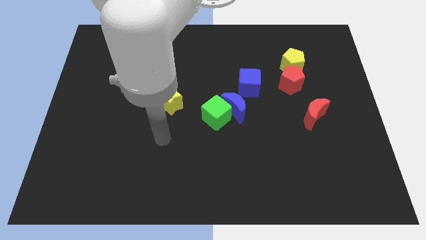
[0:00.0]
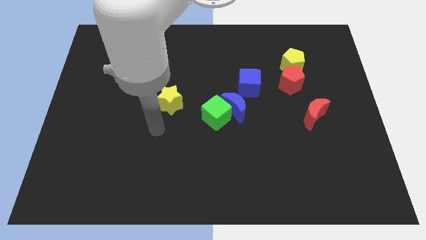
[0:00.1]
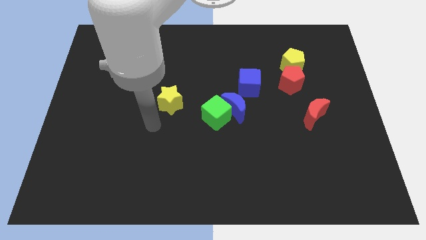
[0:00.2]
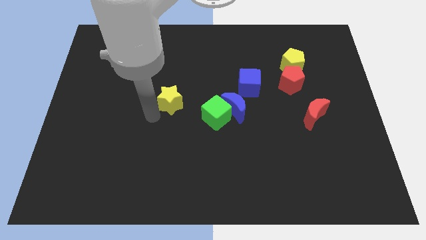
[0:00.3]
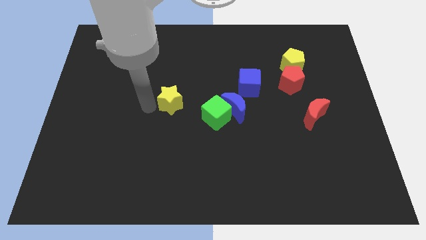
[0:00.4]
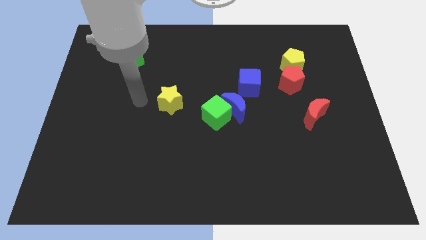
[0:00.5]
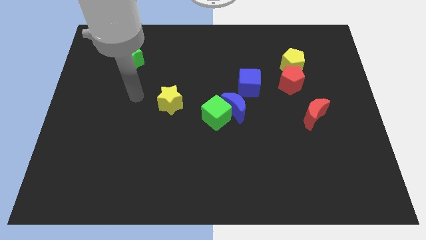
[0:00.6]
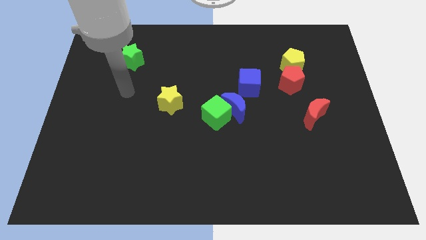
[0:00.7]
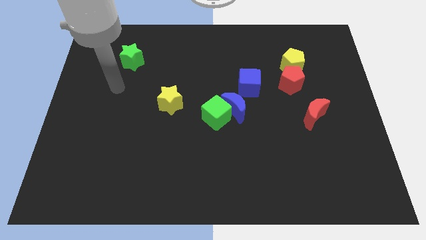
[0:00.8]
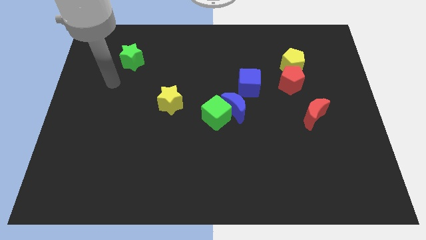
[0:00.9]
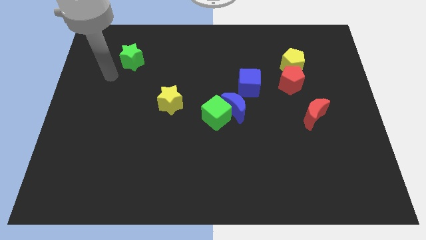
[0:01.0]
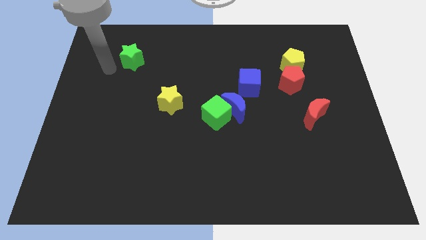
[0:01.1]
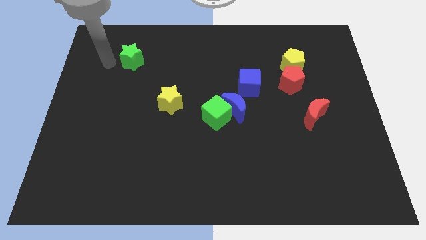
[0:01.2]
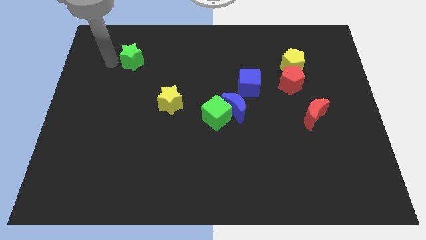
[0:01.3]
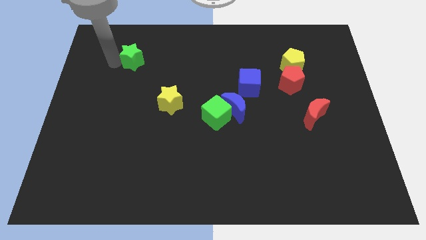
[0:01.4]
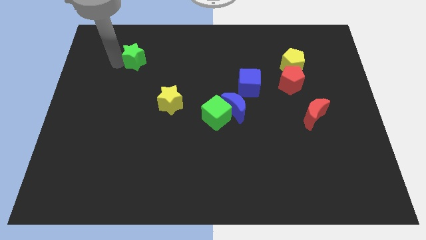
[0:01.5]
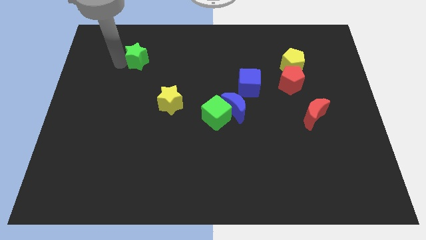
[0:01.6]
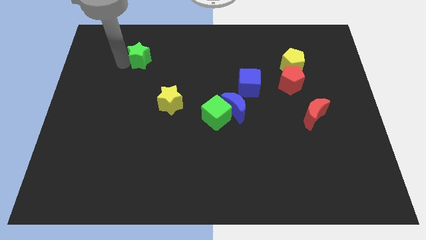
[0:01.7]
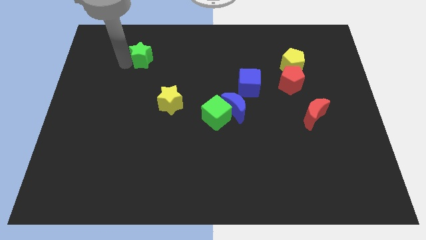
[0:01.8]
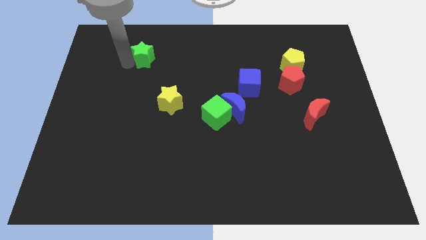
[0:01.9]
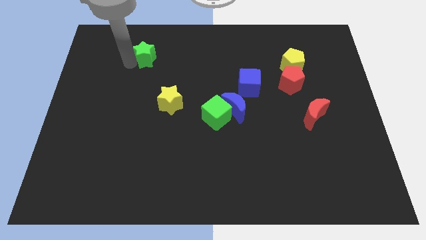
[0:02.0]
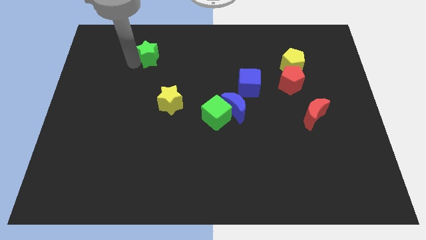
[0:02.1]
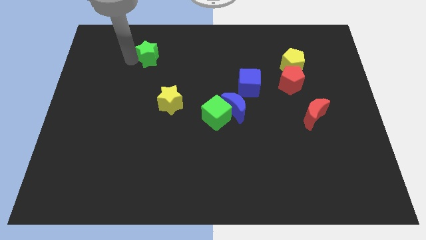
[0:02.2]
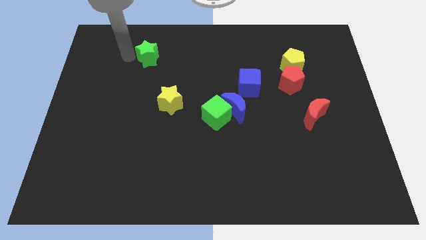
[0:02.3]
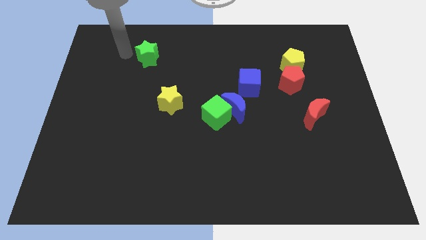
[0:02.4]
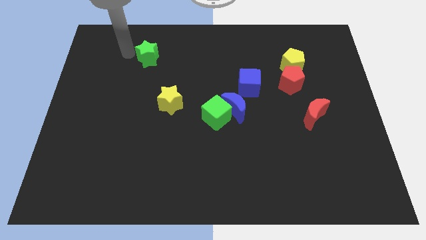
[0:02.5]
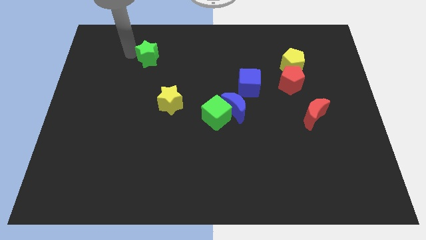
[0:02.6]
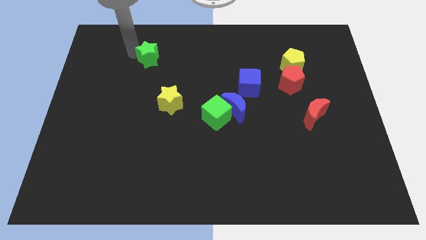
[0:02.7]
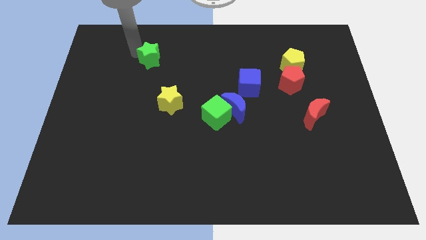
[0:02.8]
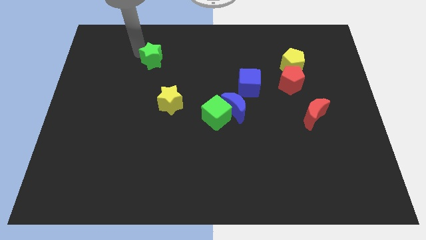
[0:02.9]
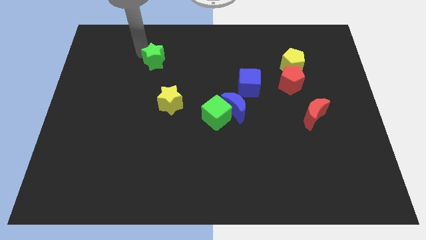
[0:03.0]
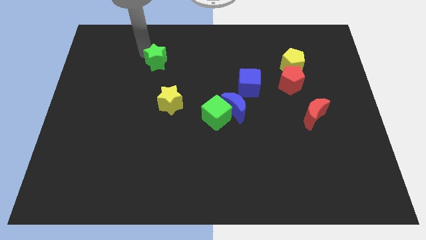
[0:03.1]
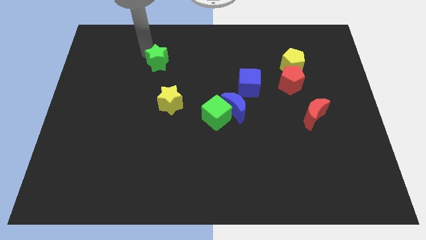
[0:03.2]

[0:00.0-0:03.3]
slide the green star right a little bit

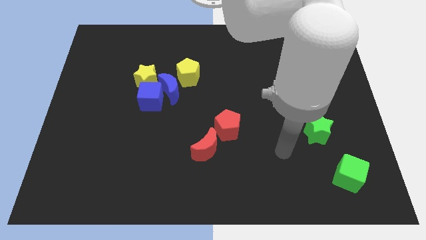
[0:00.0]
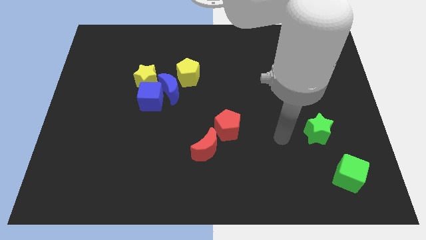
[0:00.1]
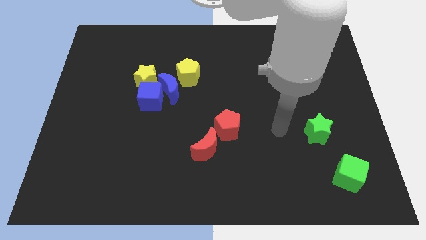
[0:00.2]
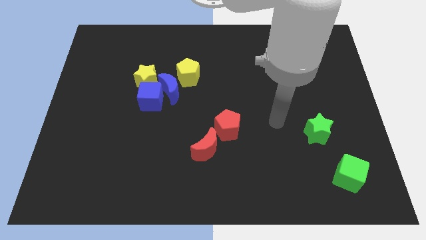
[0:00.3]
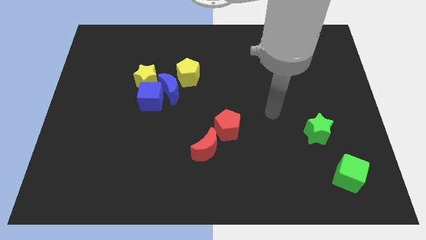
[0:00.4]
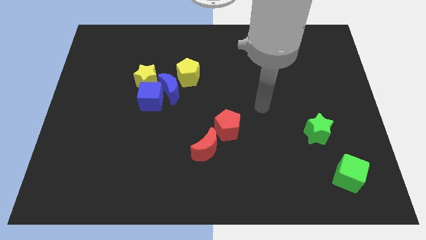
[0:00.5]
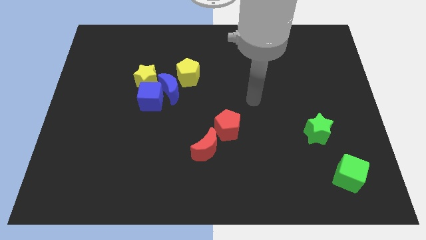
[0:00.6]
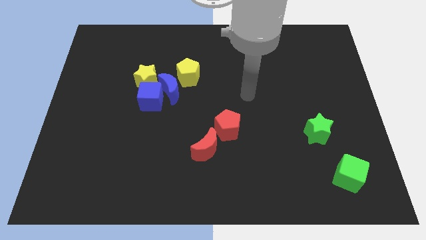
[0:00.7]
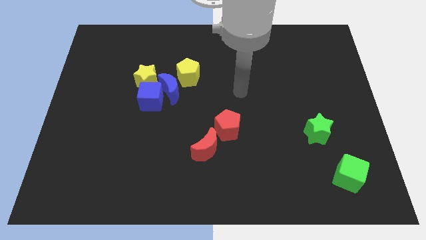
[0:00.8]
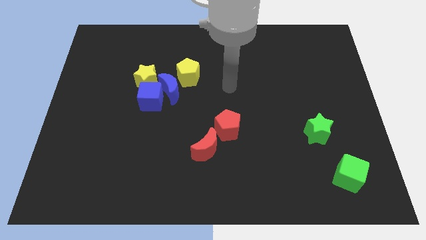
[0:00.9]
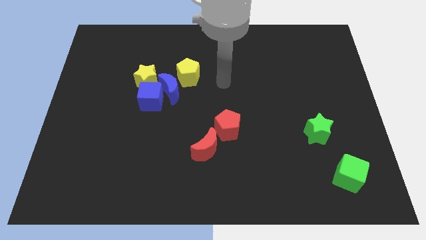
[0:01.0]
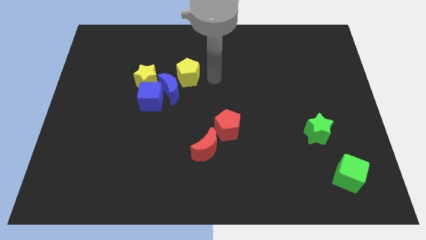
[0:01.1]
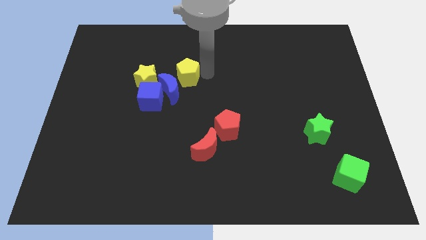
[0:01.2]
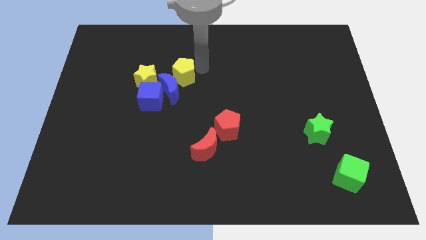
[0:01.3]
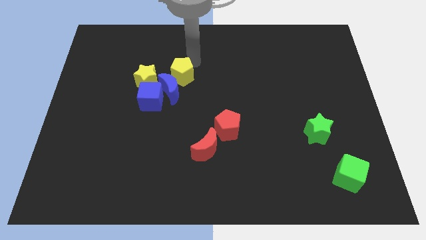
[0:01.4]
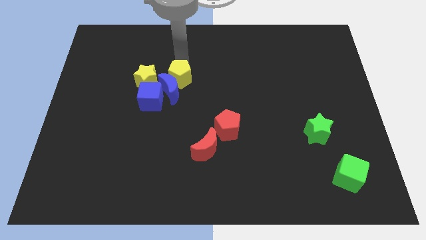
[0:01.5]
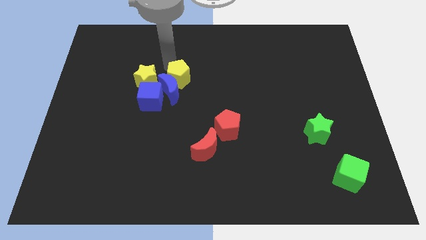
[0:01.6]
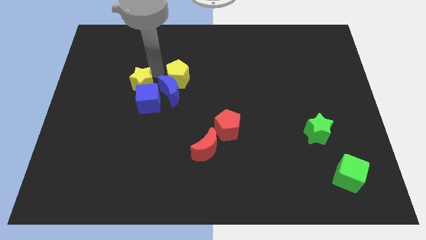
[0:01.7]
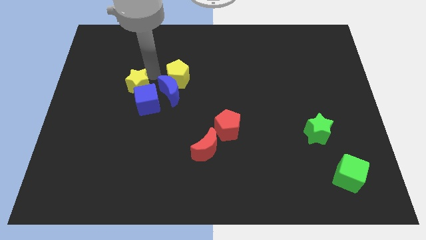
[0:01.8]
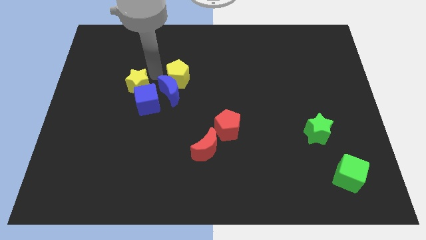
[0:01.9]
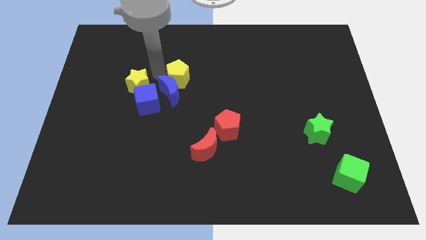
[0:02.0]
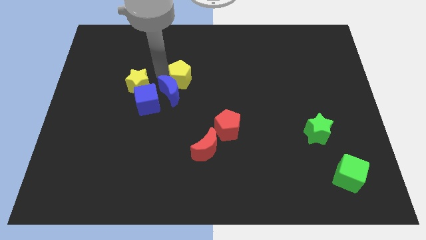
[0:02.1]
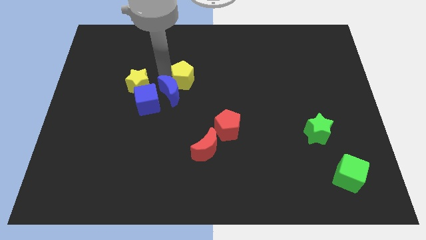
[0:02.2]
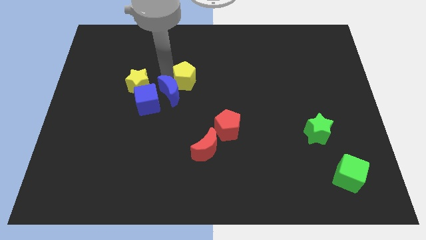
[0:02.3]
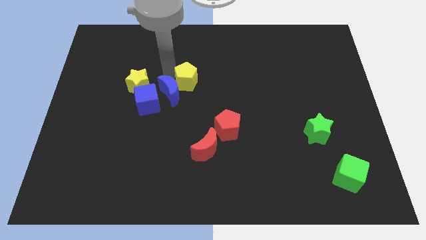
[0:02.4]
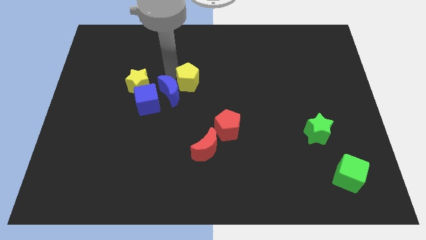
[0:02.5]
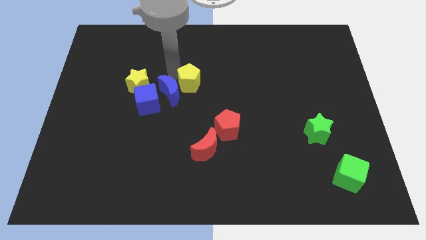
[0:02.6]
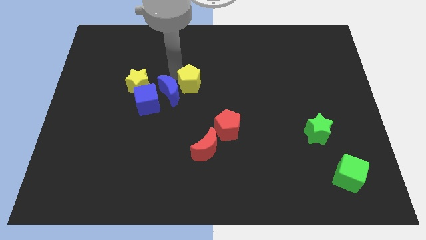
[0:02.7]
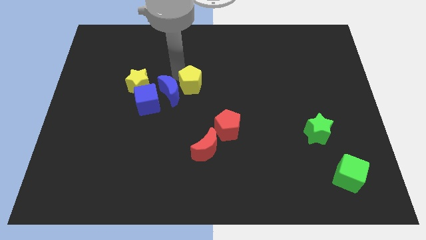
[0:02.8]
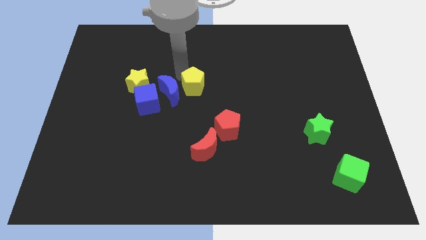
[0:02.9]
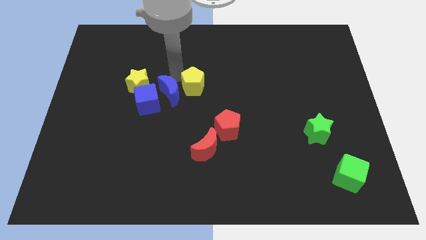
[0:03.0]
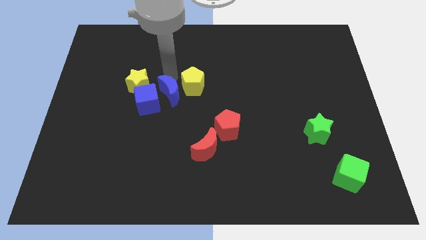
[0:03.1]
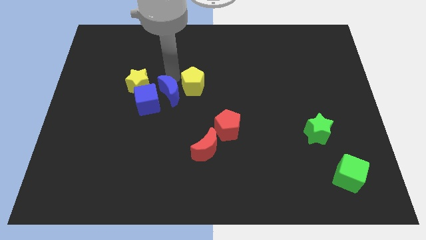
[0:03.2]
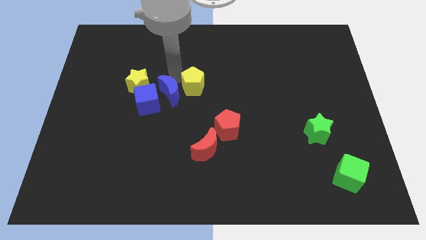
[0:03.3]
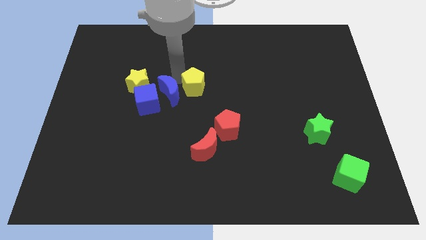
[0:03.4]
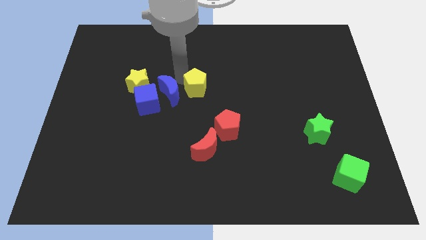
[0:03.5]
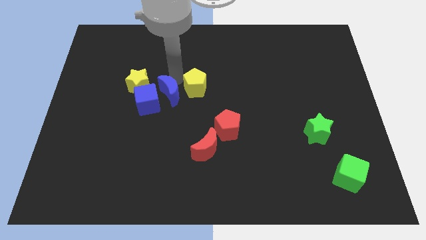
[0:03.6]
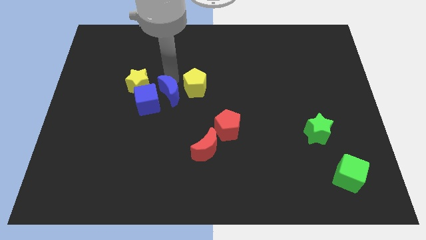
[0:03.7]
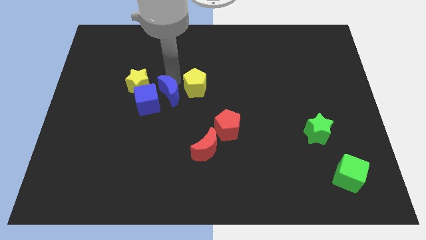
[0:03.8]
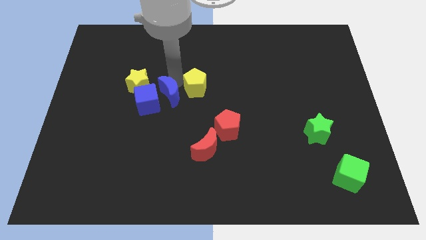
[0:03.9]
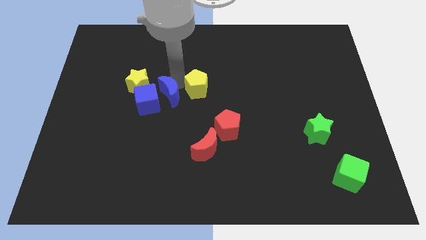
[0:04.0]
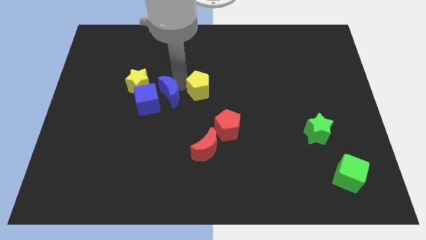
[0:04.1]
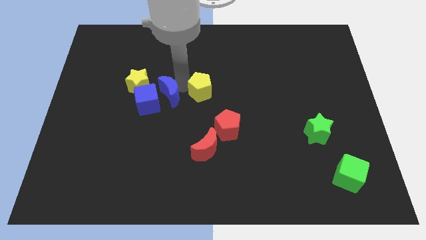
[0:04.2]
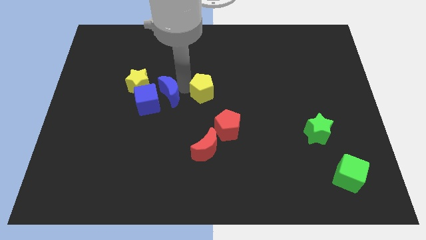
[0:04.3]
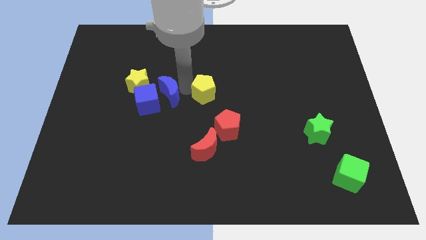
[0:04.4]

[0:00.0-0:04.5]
move the yellow pentagon somewhat downwards and right

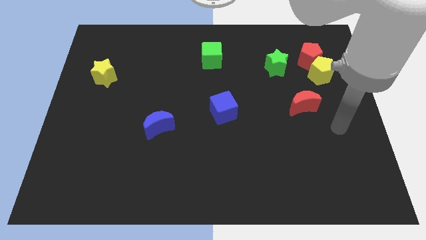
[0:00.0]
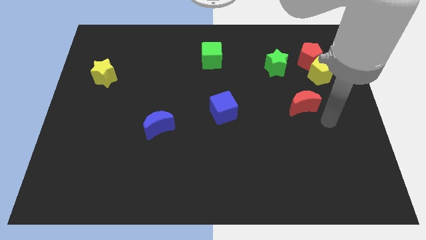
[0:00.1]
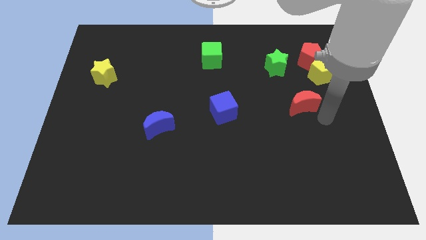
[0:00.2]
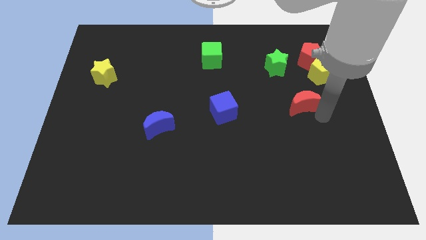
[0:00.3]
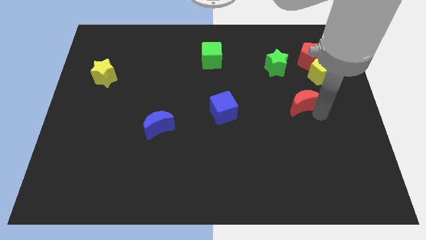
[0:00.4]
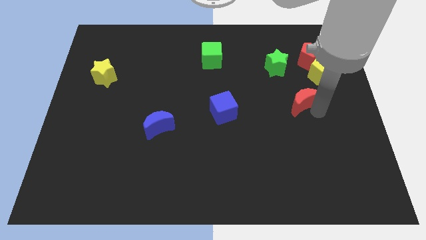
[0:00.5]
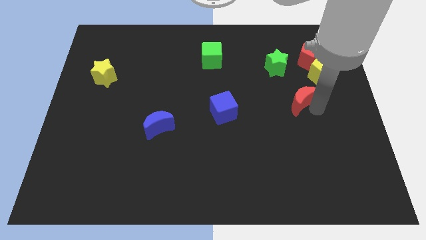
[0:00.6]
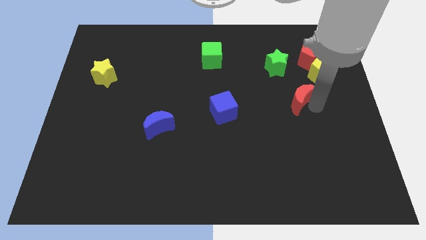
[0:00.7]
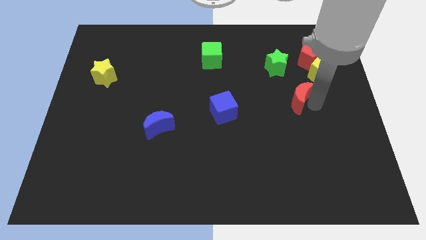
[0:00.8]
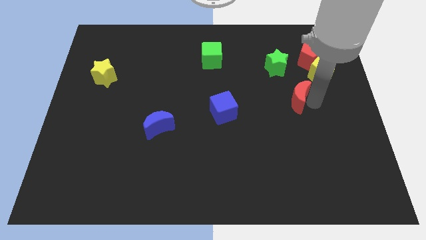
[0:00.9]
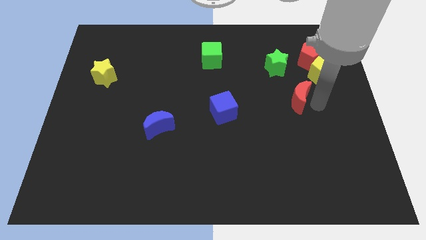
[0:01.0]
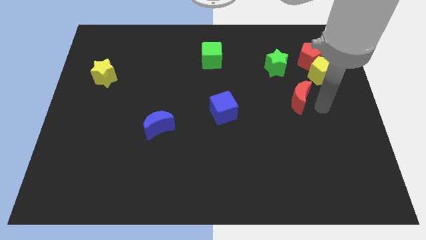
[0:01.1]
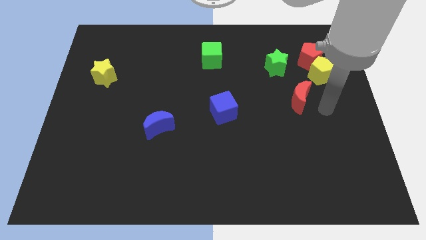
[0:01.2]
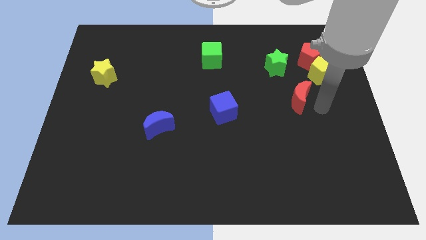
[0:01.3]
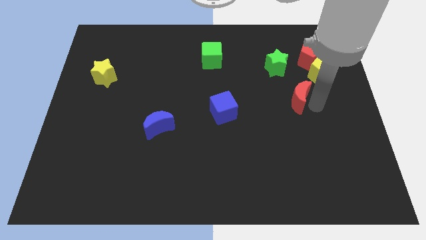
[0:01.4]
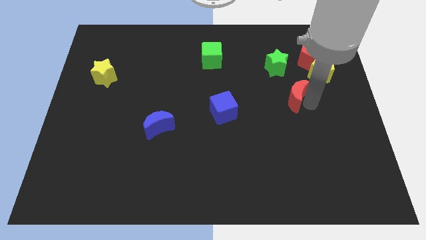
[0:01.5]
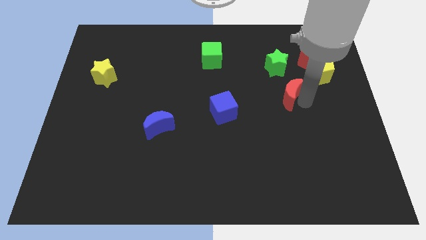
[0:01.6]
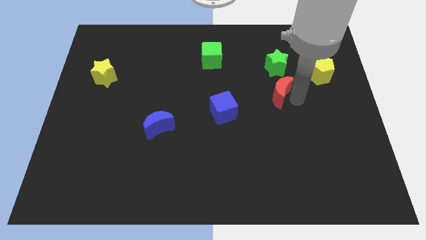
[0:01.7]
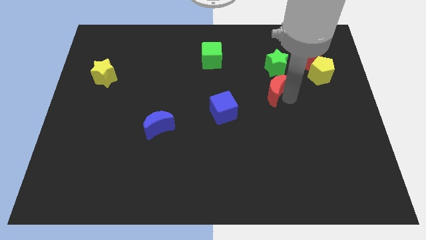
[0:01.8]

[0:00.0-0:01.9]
move the red moon a little up and then to the left
